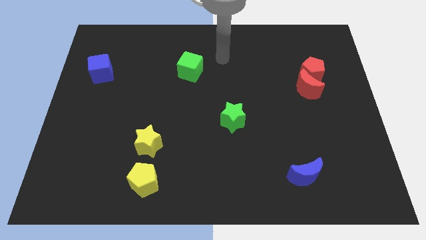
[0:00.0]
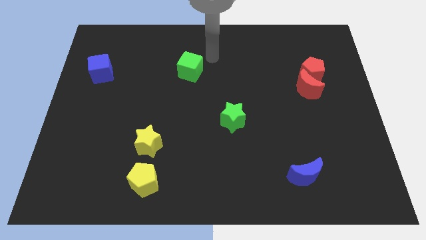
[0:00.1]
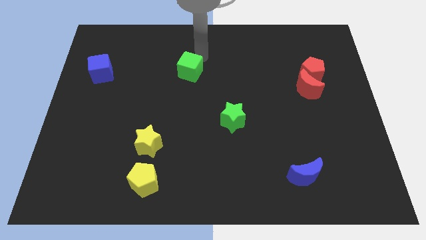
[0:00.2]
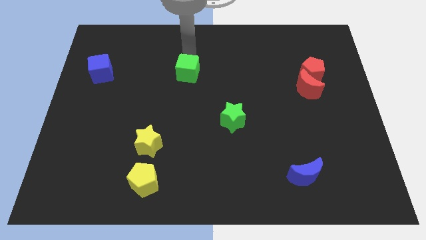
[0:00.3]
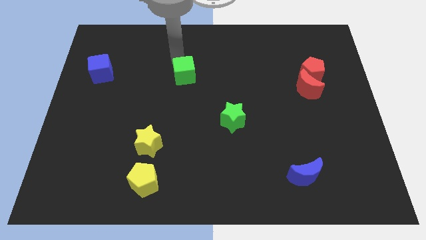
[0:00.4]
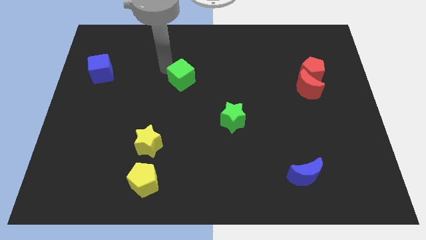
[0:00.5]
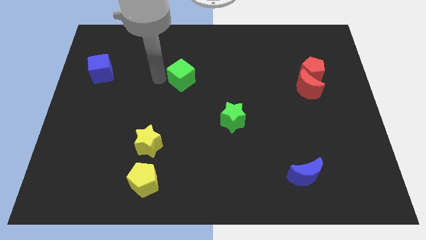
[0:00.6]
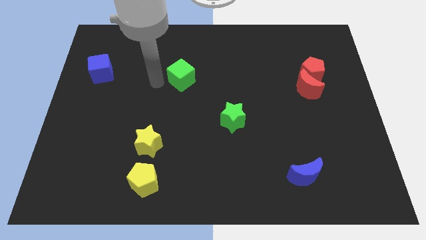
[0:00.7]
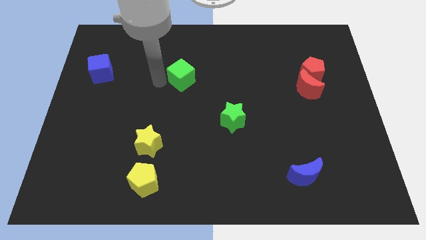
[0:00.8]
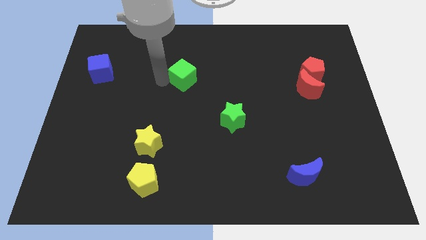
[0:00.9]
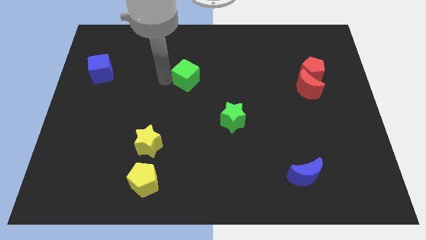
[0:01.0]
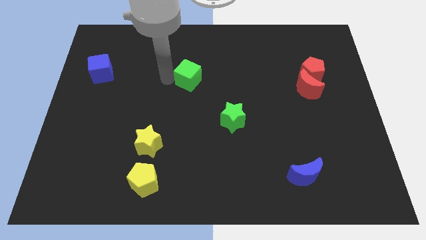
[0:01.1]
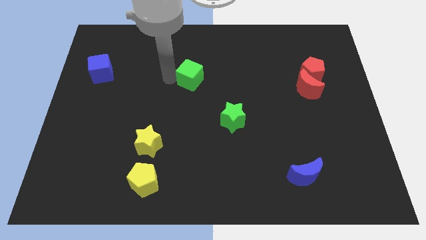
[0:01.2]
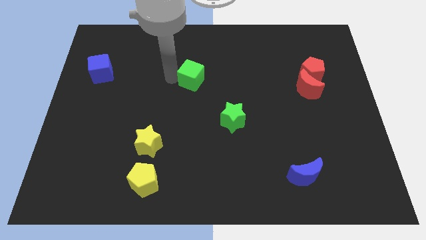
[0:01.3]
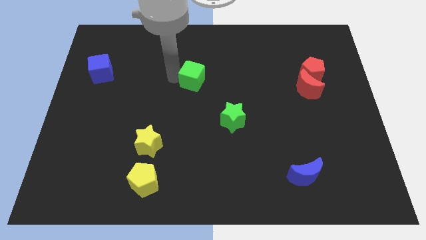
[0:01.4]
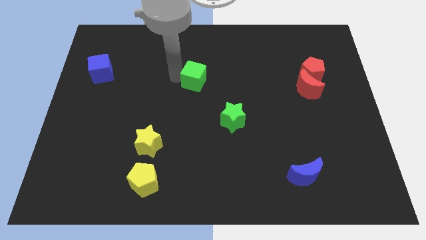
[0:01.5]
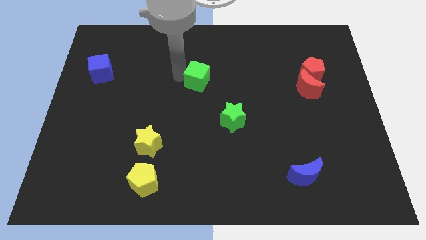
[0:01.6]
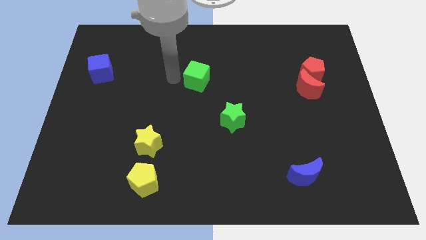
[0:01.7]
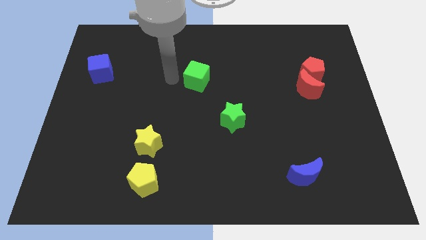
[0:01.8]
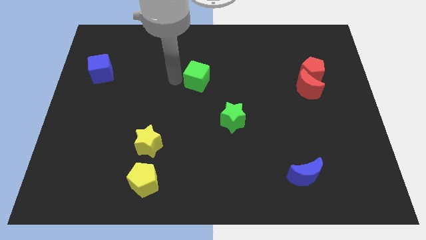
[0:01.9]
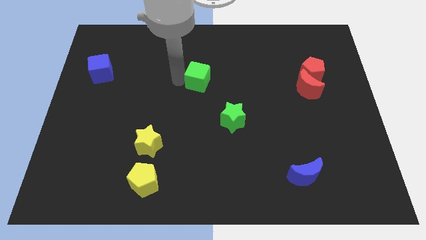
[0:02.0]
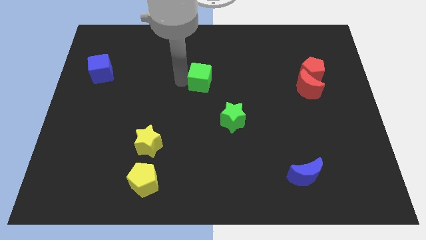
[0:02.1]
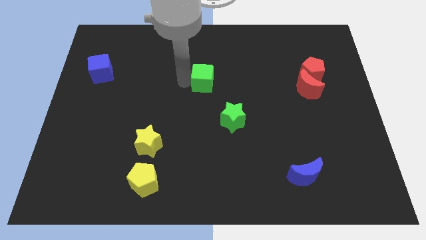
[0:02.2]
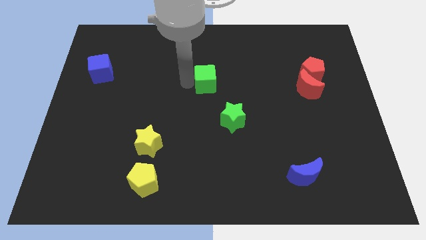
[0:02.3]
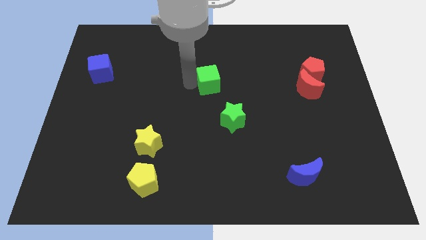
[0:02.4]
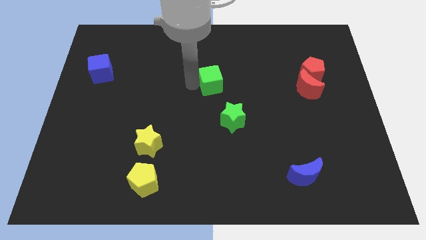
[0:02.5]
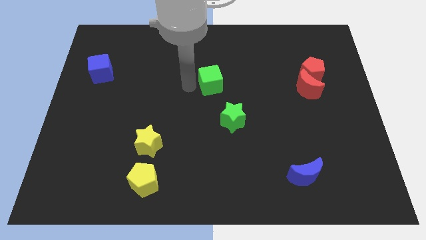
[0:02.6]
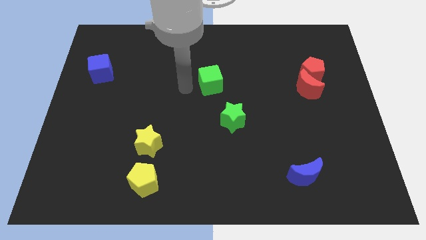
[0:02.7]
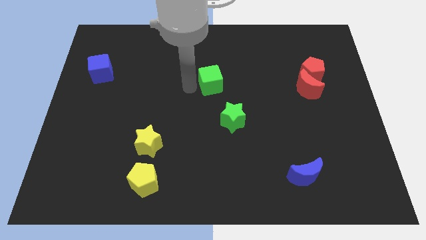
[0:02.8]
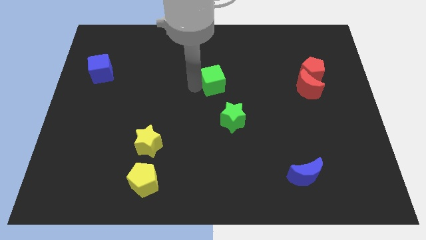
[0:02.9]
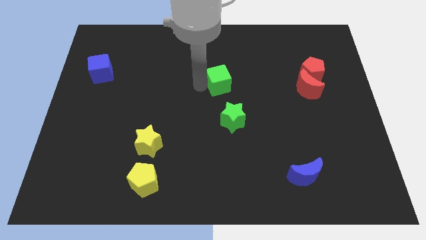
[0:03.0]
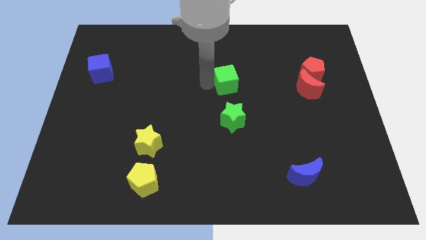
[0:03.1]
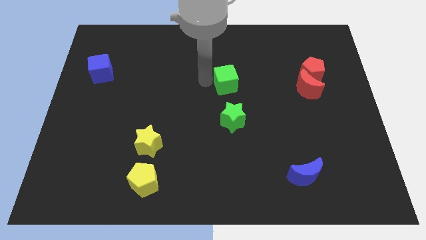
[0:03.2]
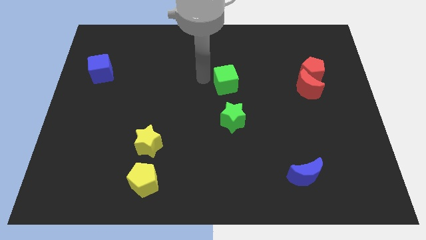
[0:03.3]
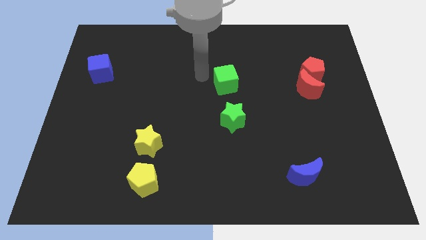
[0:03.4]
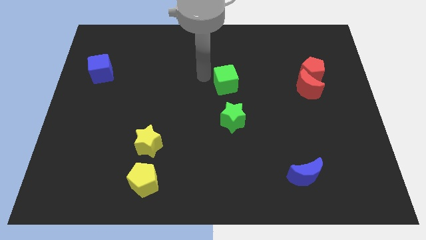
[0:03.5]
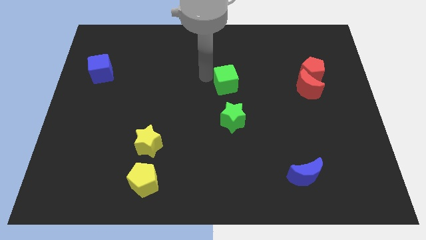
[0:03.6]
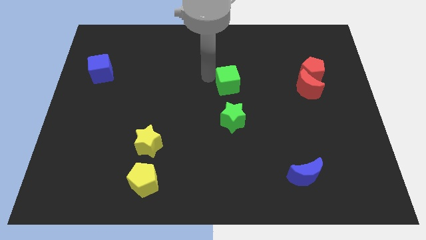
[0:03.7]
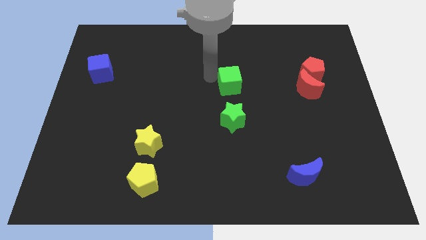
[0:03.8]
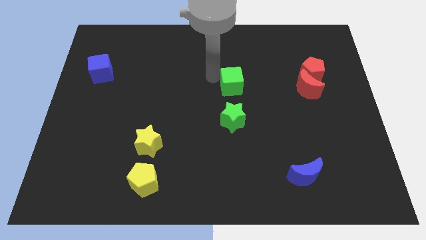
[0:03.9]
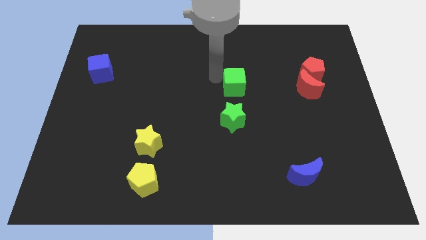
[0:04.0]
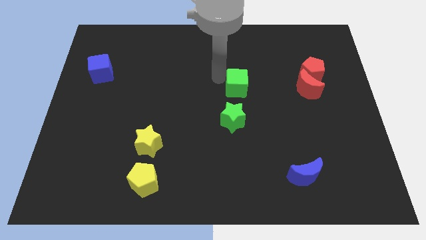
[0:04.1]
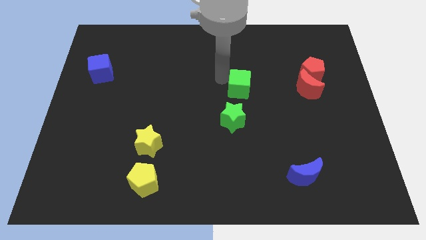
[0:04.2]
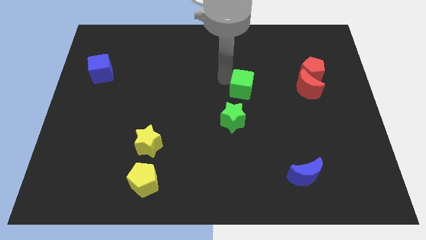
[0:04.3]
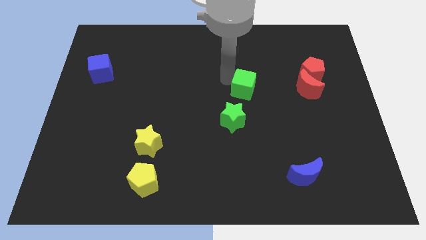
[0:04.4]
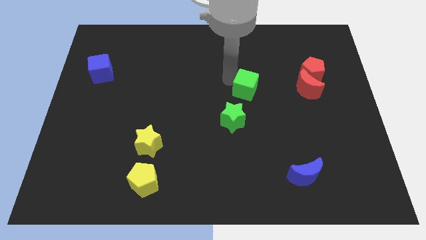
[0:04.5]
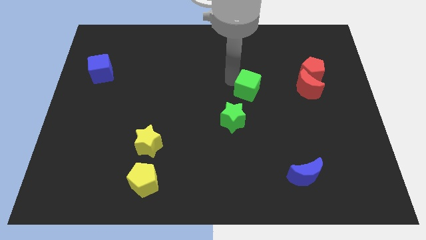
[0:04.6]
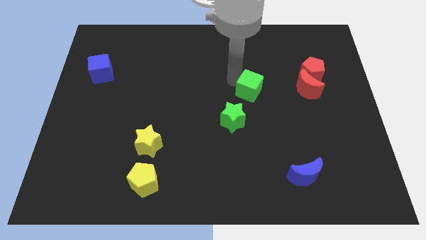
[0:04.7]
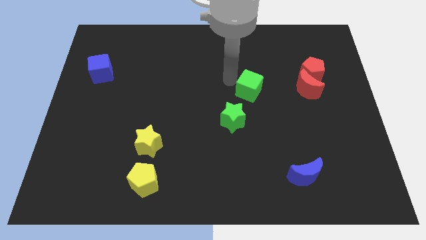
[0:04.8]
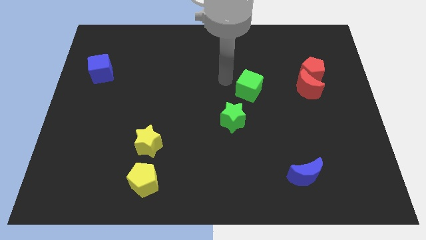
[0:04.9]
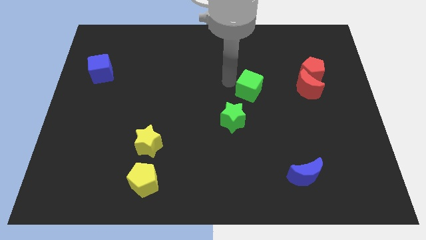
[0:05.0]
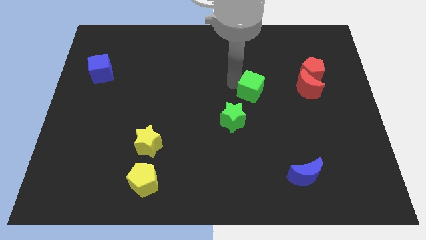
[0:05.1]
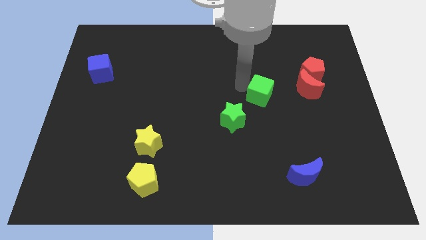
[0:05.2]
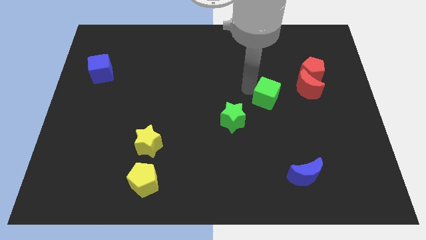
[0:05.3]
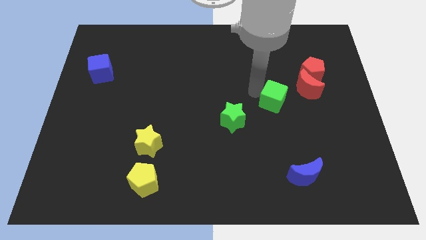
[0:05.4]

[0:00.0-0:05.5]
move the green cube diagonally down and to the left of the red moon

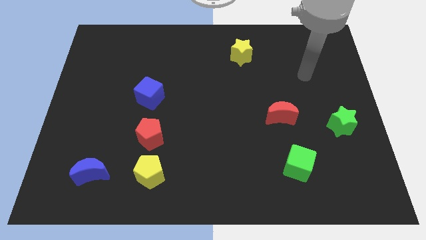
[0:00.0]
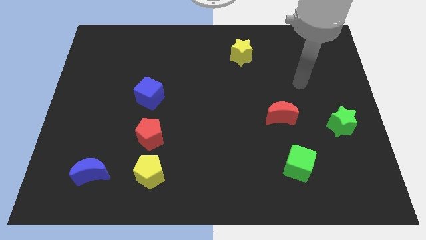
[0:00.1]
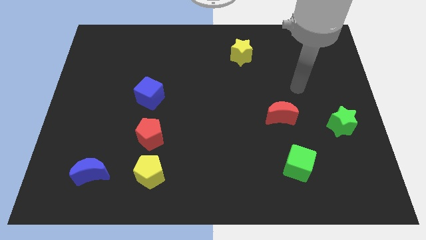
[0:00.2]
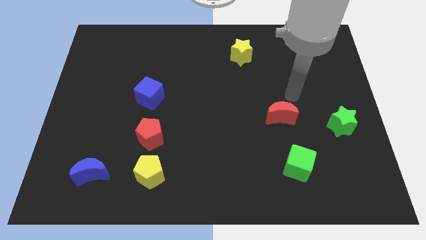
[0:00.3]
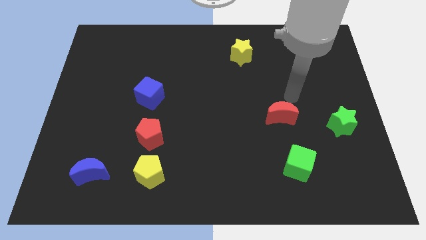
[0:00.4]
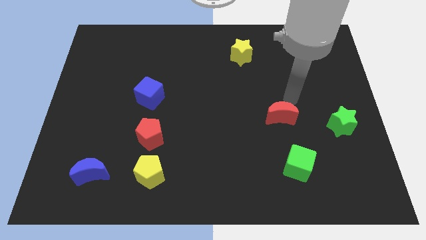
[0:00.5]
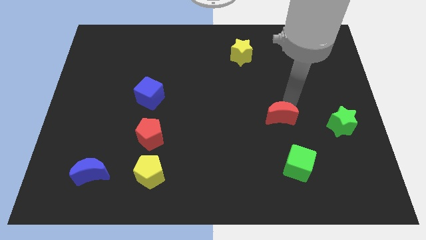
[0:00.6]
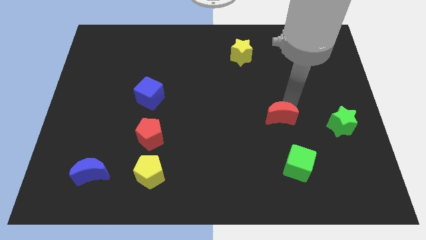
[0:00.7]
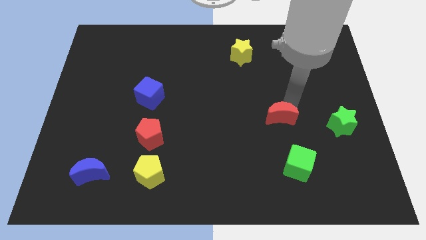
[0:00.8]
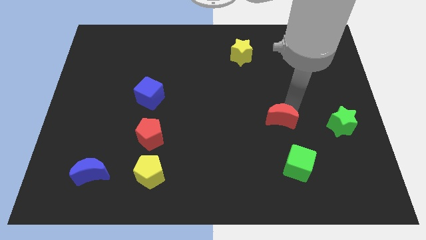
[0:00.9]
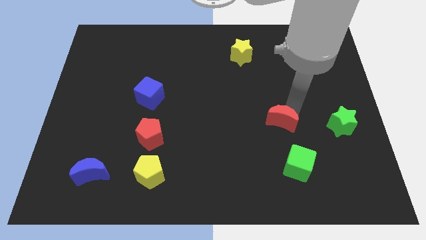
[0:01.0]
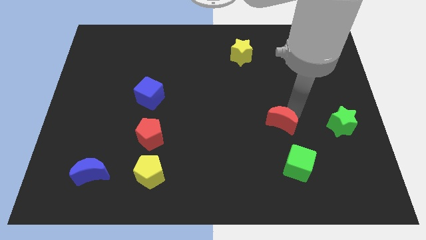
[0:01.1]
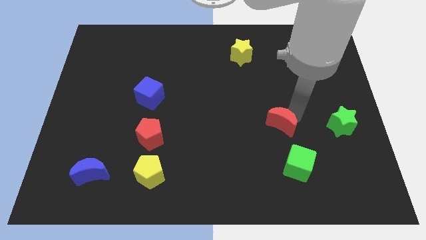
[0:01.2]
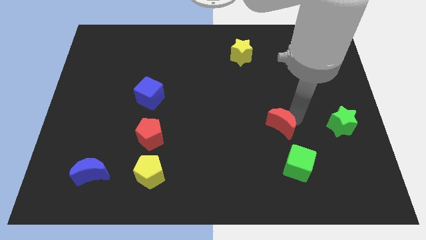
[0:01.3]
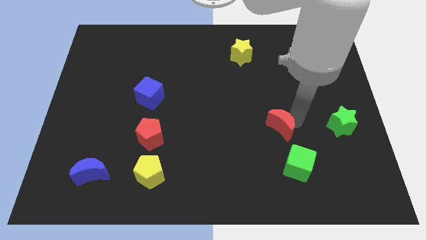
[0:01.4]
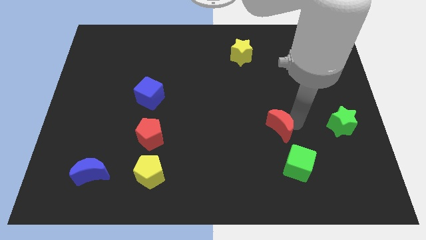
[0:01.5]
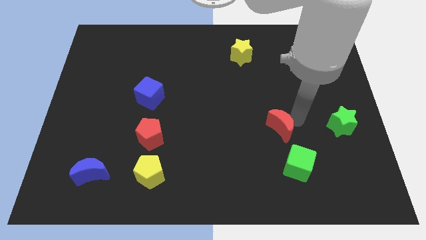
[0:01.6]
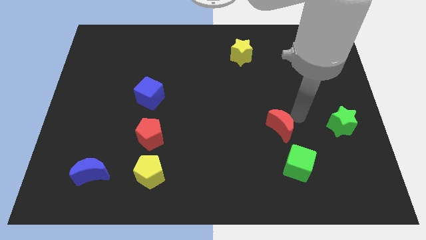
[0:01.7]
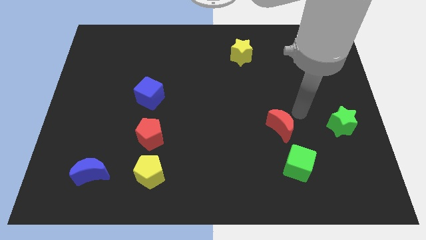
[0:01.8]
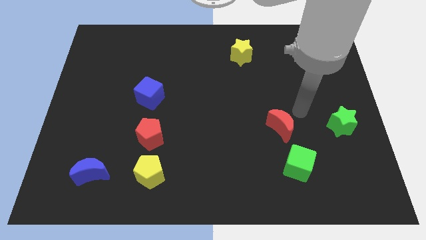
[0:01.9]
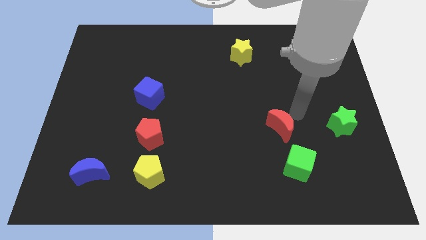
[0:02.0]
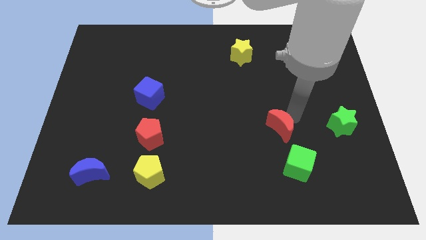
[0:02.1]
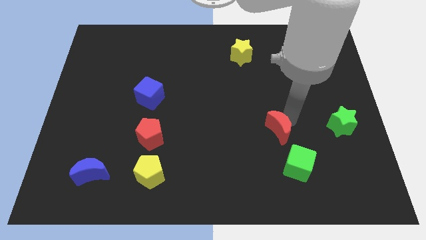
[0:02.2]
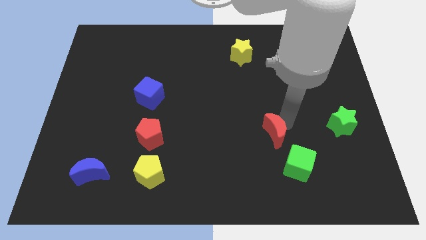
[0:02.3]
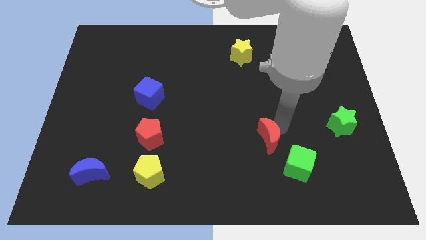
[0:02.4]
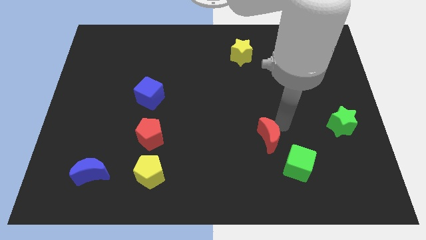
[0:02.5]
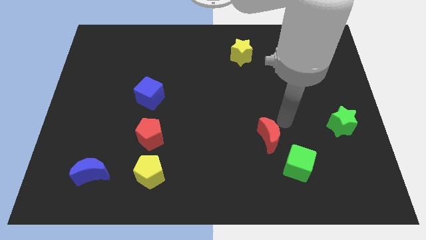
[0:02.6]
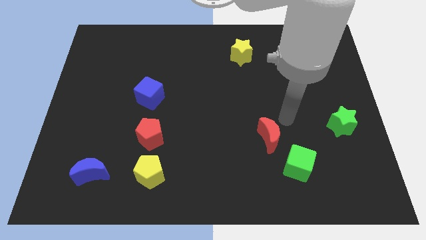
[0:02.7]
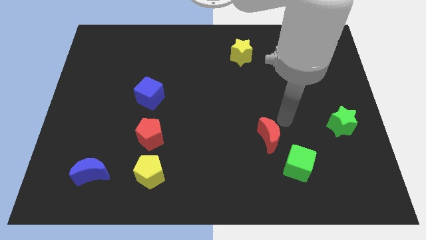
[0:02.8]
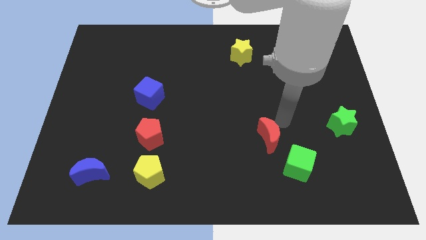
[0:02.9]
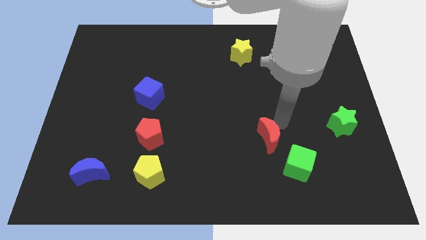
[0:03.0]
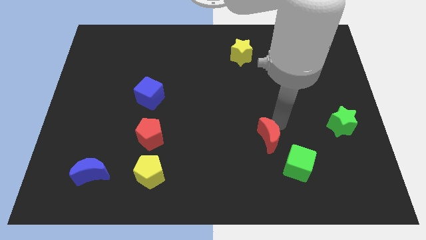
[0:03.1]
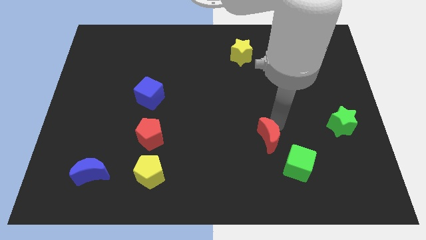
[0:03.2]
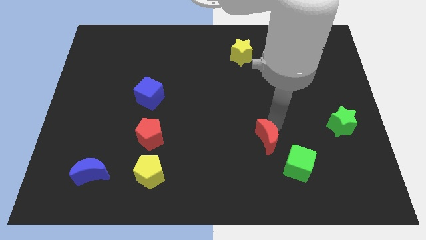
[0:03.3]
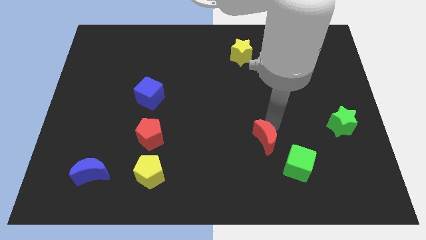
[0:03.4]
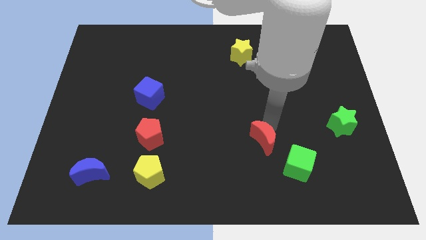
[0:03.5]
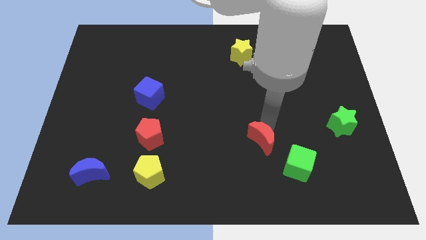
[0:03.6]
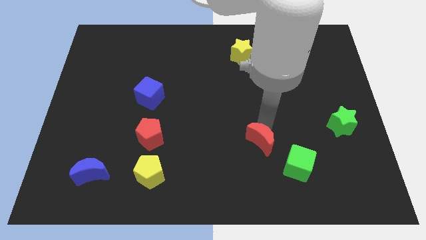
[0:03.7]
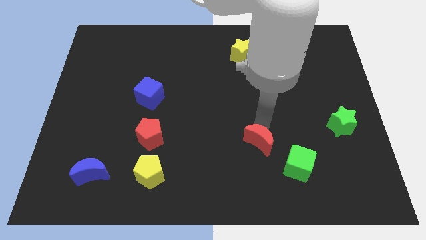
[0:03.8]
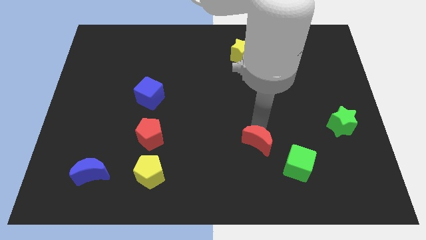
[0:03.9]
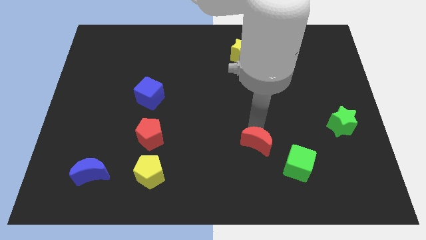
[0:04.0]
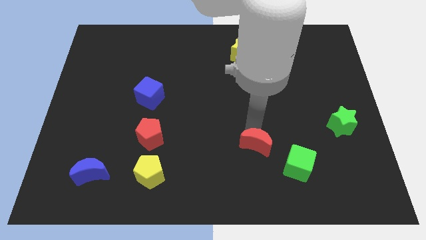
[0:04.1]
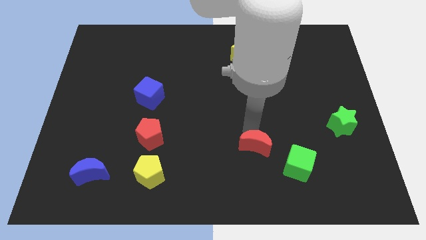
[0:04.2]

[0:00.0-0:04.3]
push the red moon just left of the green cube
